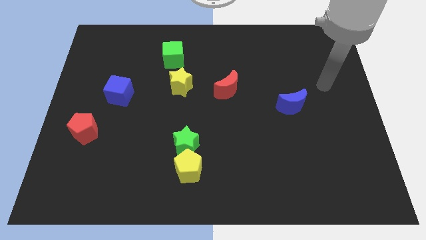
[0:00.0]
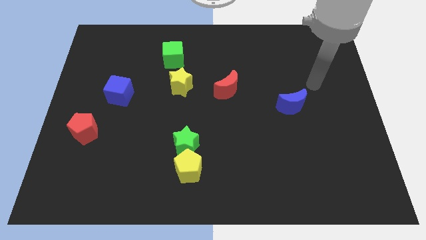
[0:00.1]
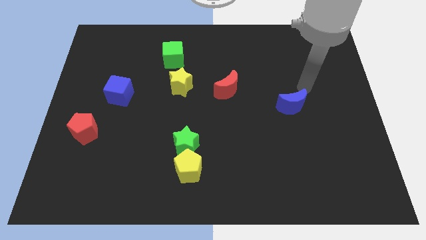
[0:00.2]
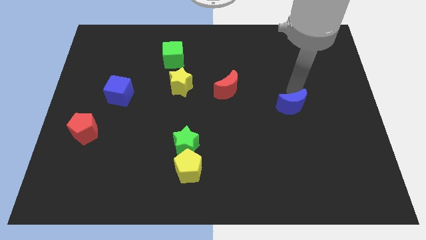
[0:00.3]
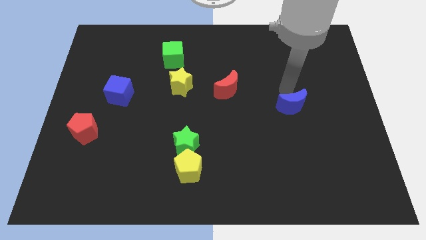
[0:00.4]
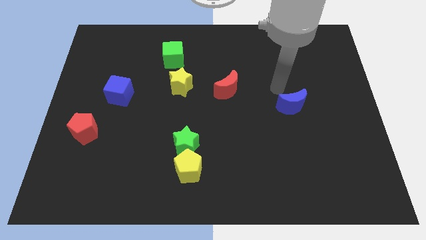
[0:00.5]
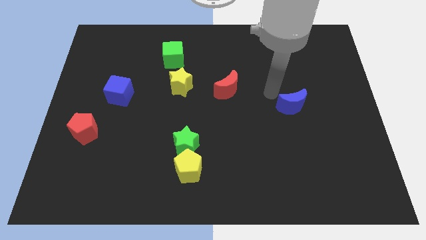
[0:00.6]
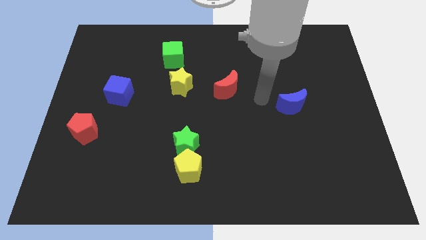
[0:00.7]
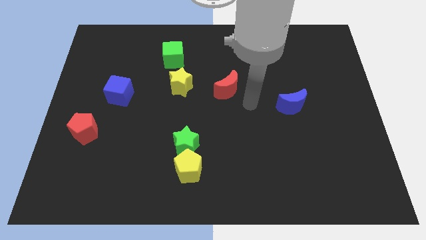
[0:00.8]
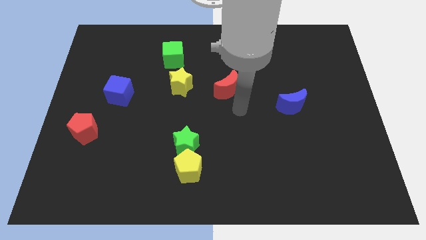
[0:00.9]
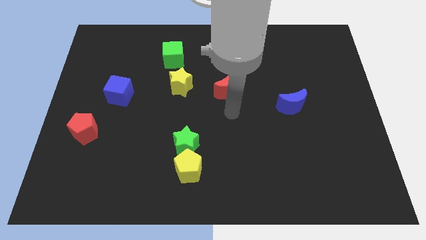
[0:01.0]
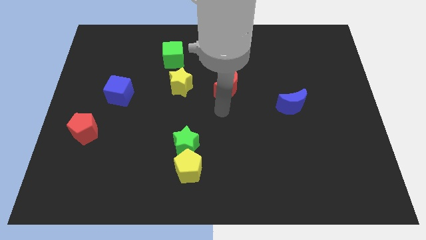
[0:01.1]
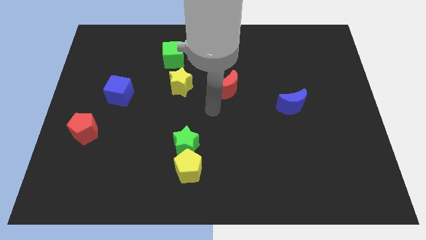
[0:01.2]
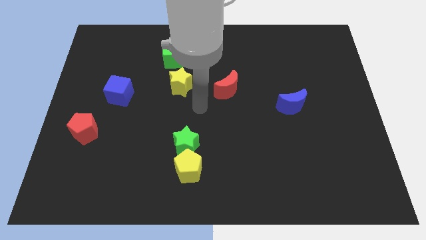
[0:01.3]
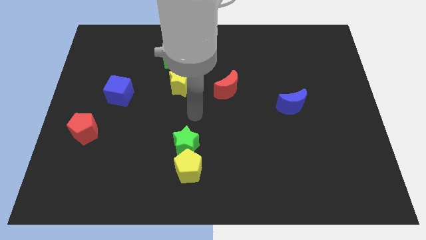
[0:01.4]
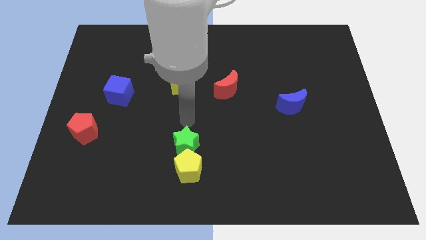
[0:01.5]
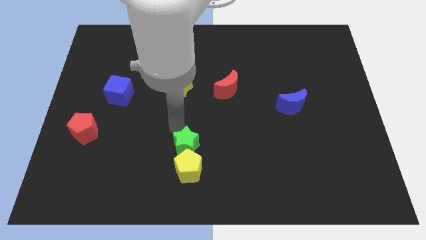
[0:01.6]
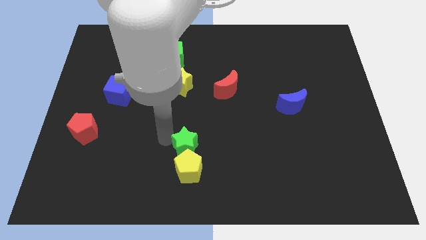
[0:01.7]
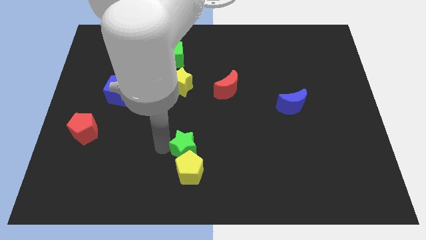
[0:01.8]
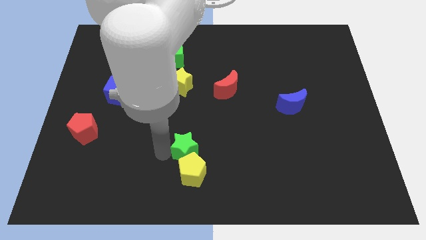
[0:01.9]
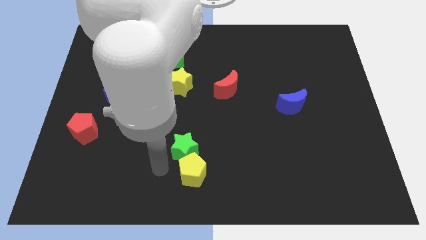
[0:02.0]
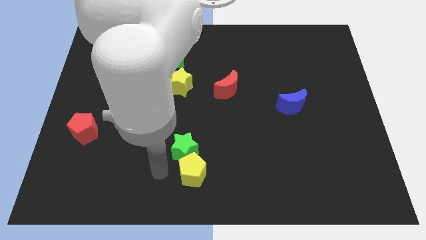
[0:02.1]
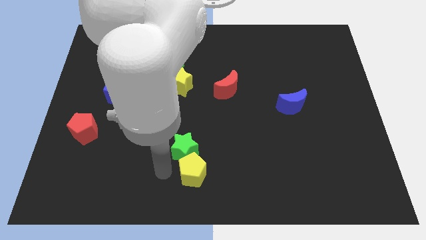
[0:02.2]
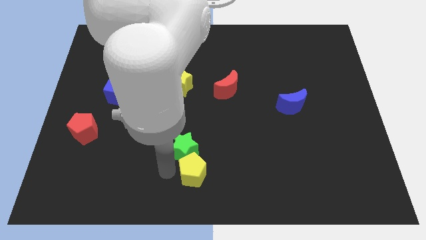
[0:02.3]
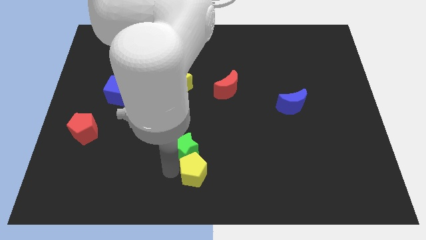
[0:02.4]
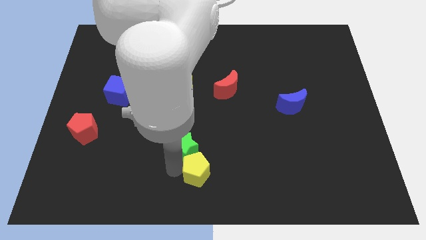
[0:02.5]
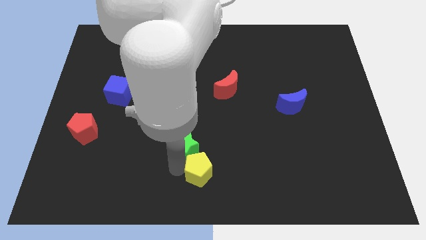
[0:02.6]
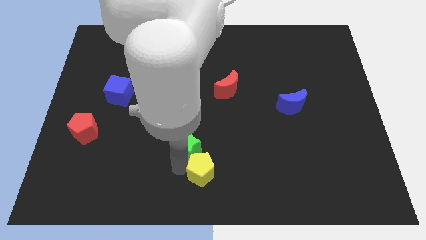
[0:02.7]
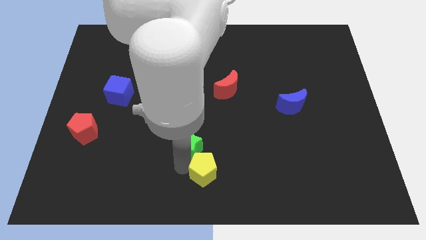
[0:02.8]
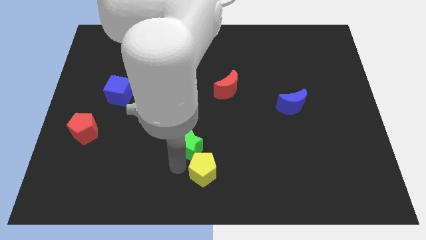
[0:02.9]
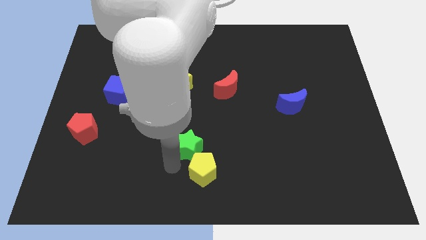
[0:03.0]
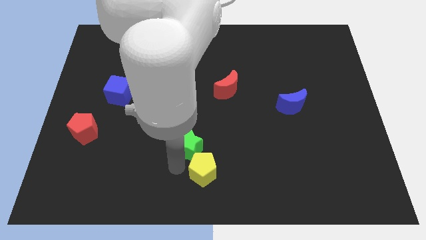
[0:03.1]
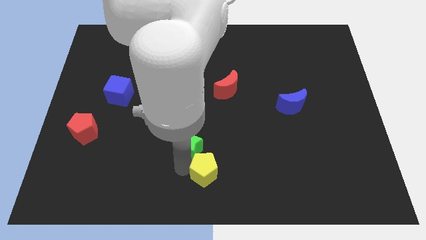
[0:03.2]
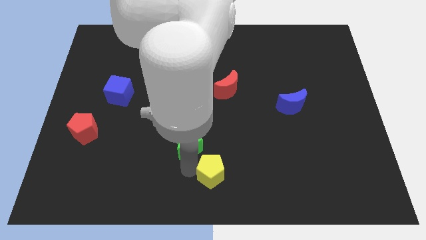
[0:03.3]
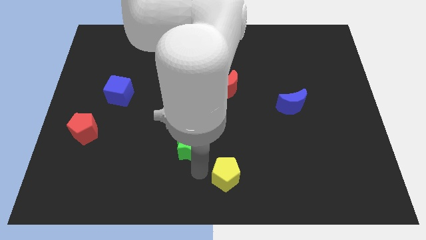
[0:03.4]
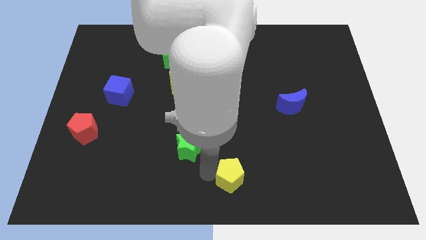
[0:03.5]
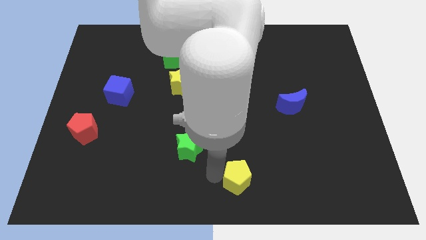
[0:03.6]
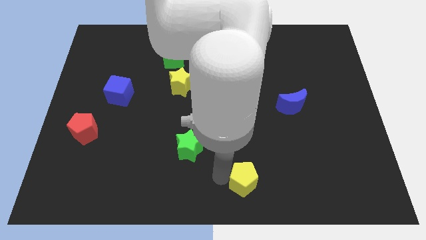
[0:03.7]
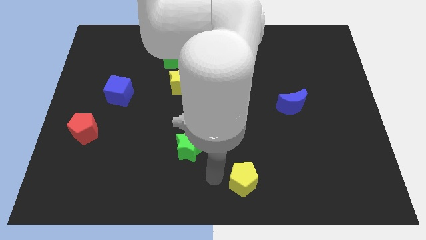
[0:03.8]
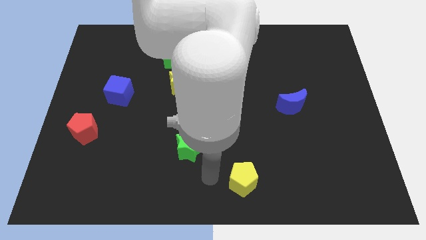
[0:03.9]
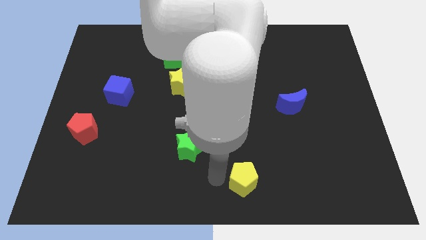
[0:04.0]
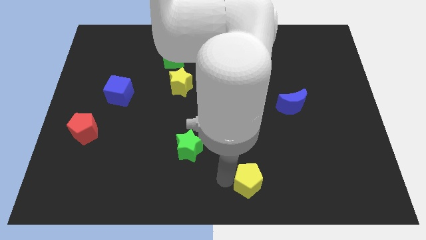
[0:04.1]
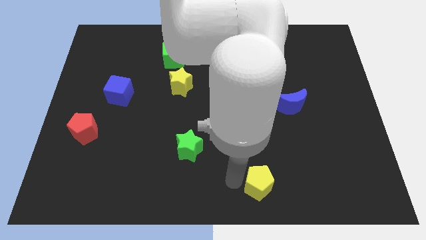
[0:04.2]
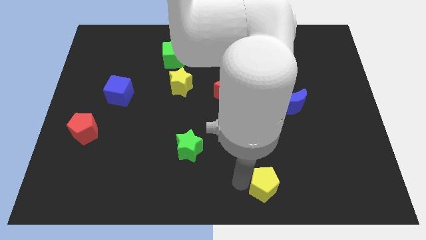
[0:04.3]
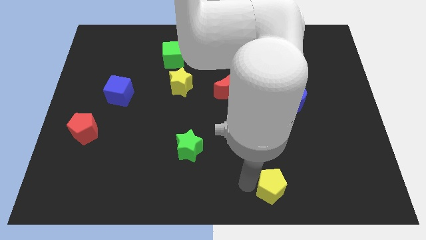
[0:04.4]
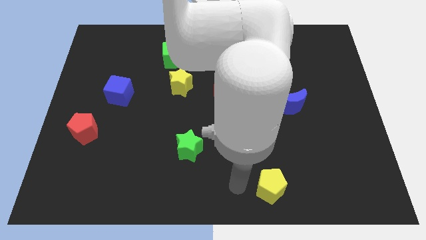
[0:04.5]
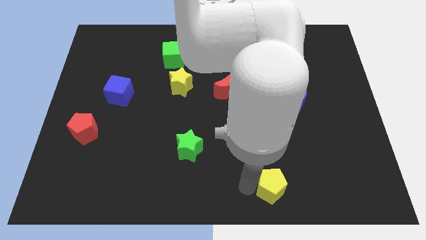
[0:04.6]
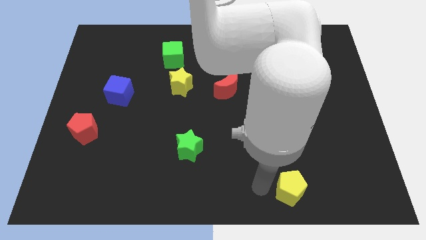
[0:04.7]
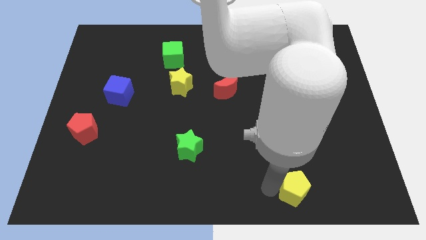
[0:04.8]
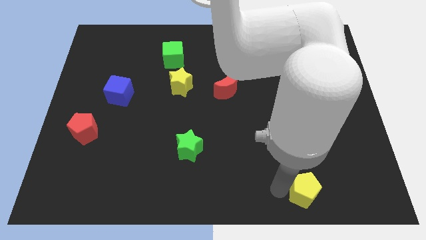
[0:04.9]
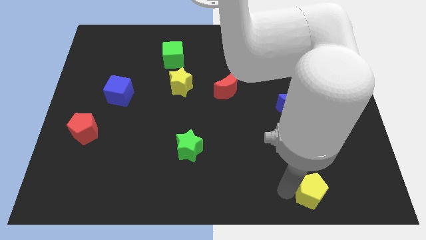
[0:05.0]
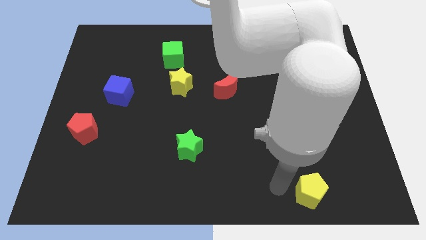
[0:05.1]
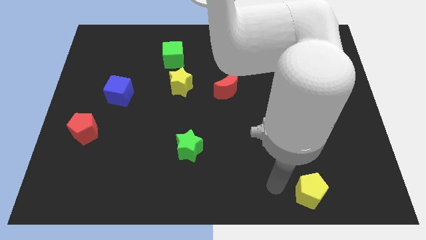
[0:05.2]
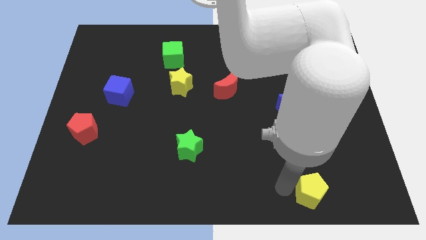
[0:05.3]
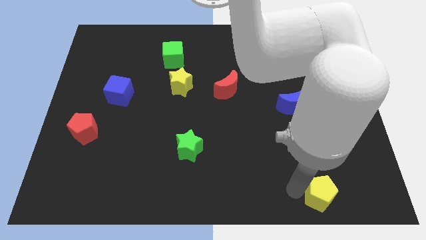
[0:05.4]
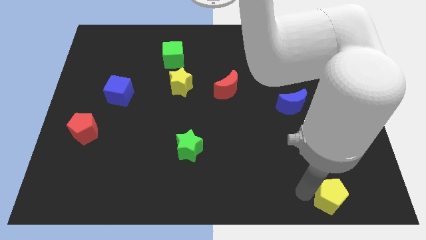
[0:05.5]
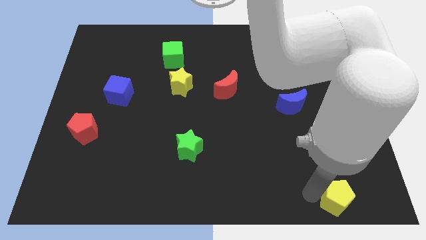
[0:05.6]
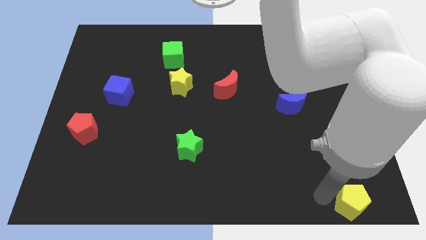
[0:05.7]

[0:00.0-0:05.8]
put the yellow pentagon to the bottom right
